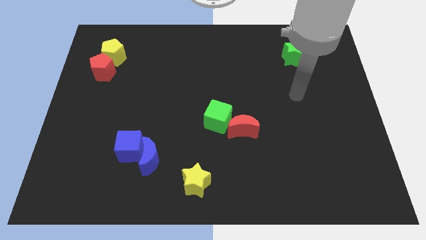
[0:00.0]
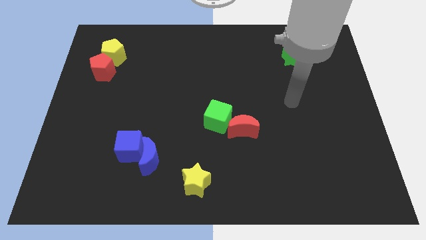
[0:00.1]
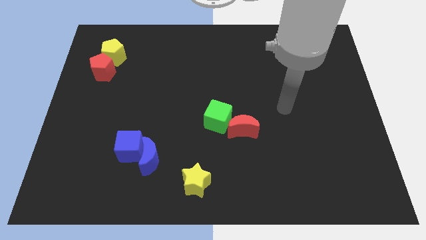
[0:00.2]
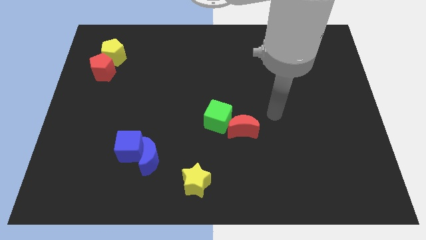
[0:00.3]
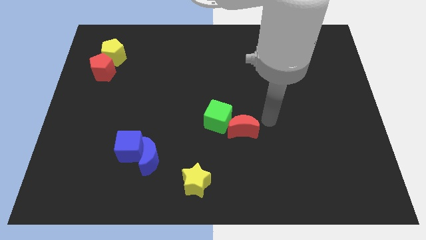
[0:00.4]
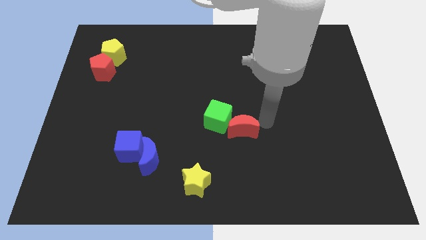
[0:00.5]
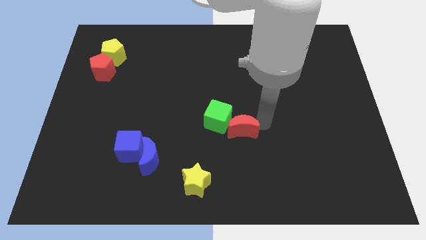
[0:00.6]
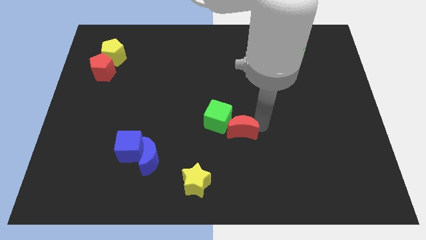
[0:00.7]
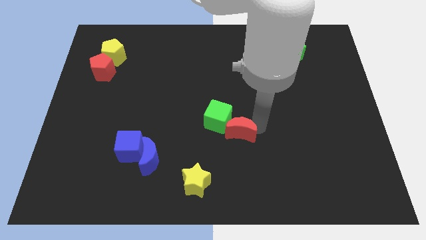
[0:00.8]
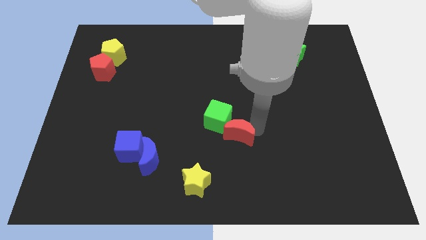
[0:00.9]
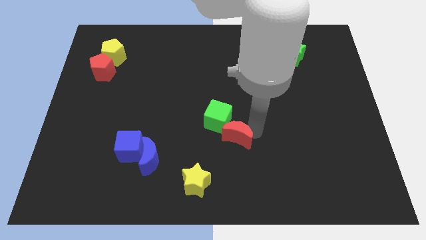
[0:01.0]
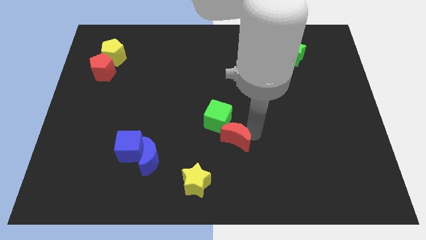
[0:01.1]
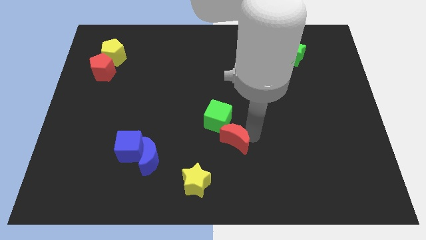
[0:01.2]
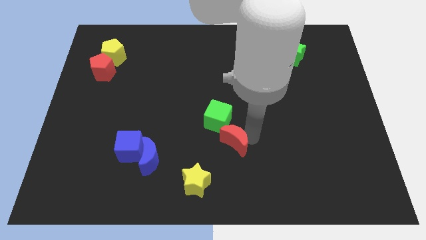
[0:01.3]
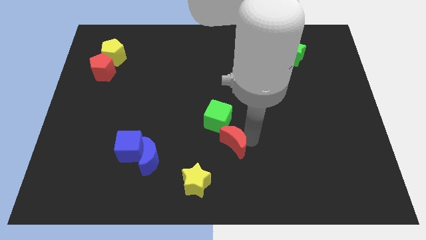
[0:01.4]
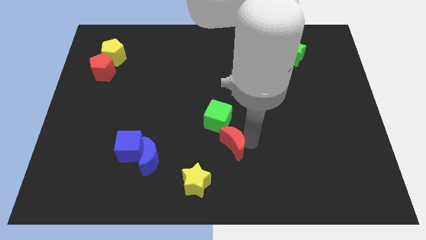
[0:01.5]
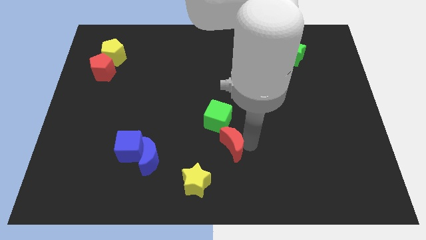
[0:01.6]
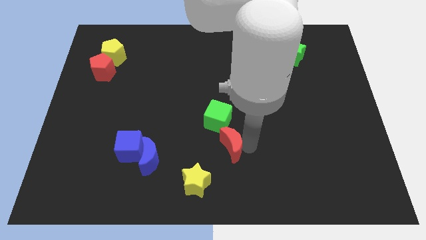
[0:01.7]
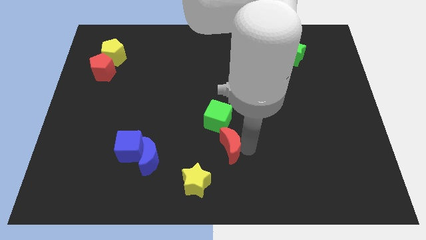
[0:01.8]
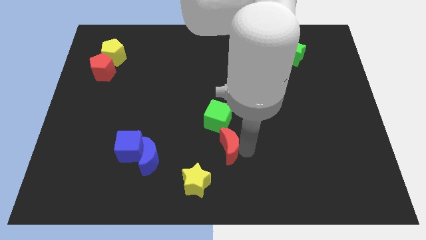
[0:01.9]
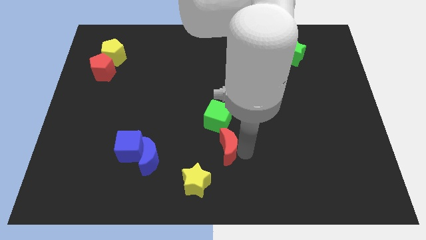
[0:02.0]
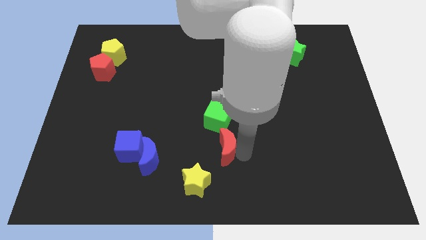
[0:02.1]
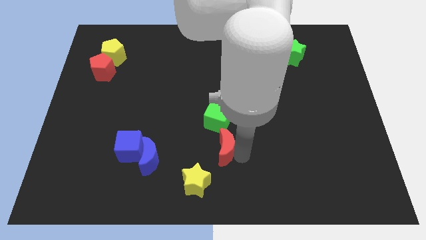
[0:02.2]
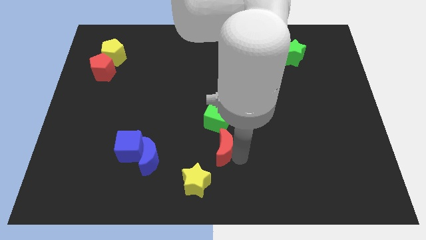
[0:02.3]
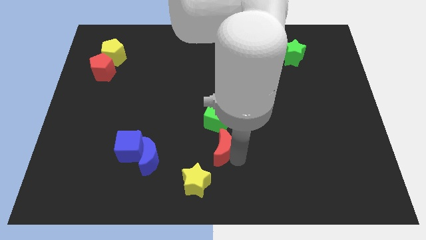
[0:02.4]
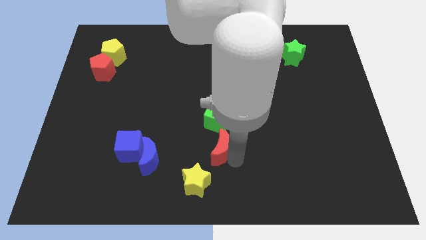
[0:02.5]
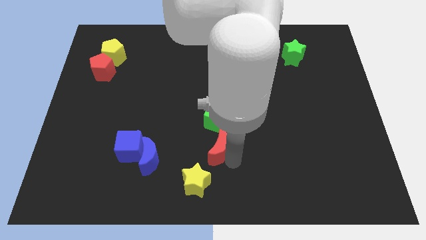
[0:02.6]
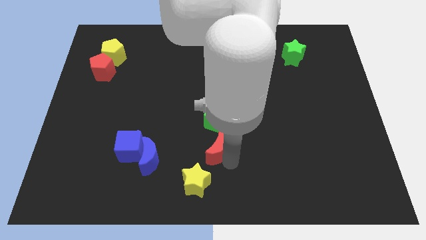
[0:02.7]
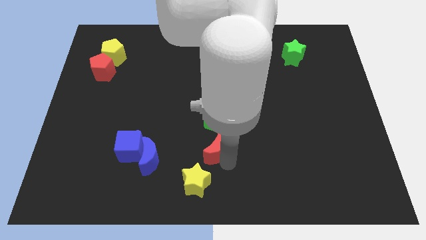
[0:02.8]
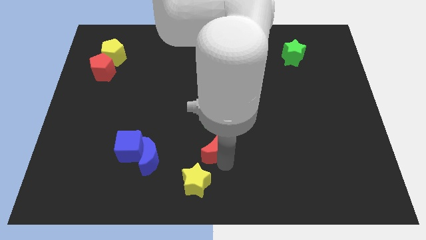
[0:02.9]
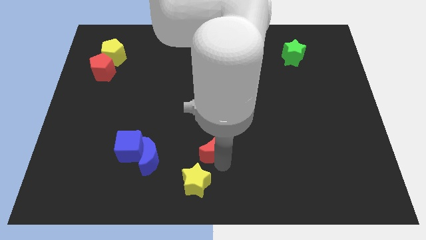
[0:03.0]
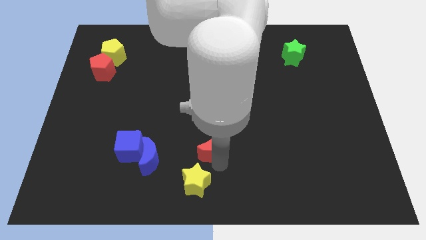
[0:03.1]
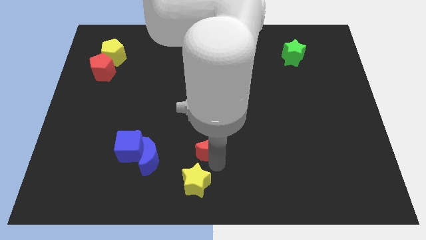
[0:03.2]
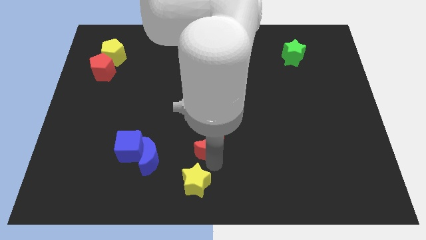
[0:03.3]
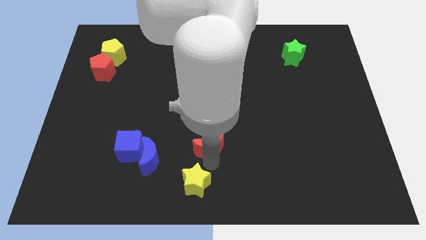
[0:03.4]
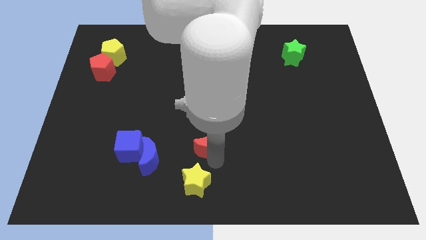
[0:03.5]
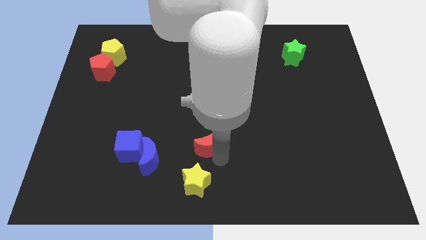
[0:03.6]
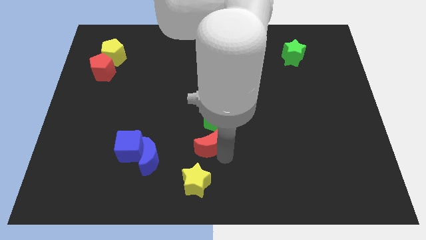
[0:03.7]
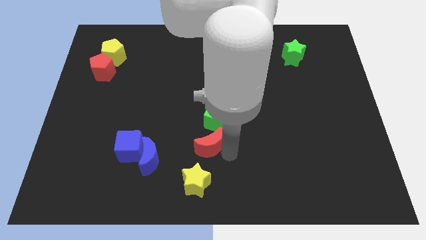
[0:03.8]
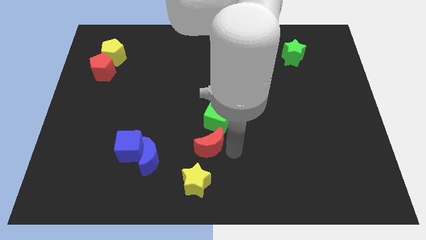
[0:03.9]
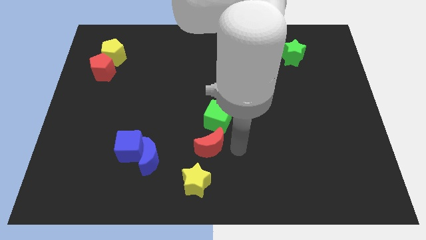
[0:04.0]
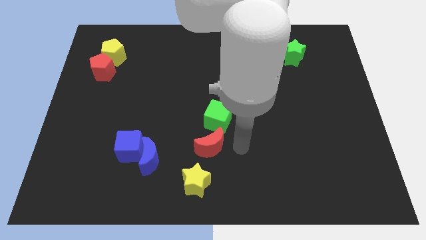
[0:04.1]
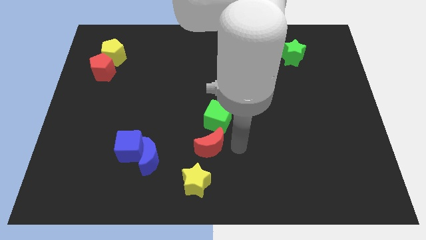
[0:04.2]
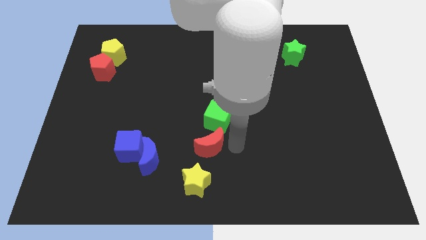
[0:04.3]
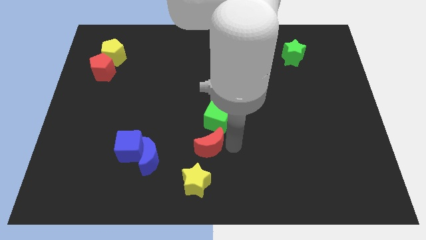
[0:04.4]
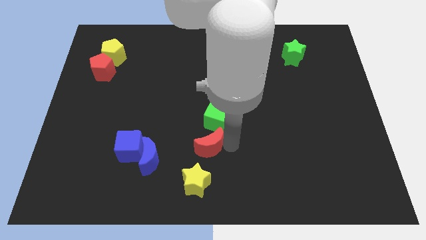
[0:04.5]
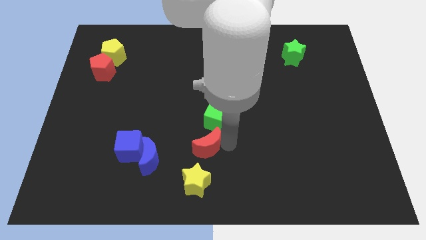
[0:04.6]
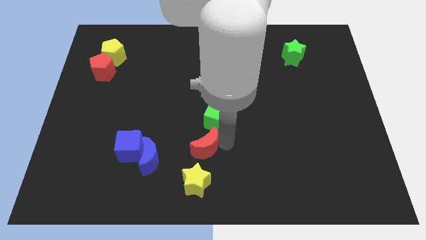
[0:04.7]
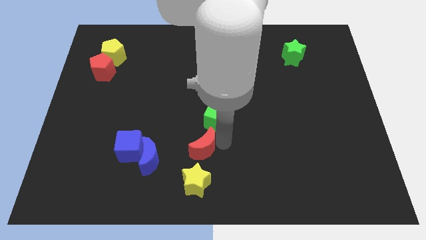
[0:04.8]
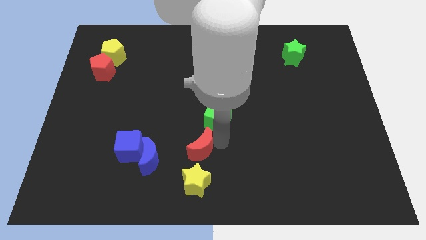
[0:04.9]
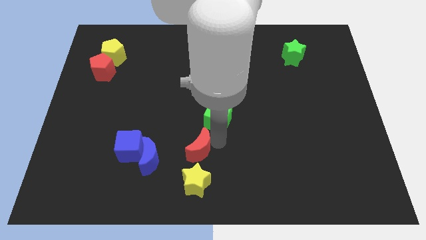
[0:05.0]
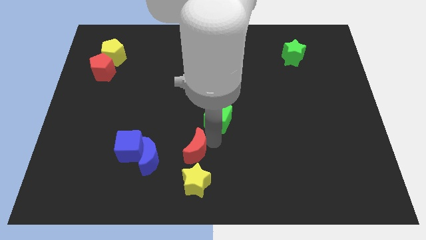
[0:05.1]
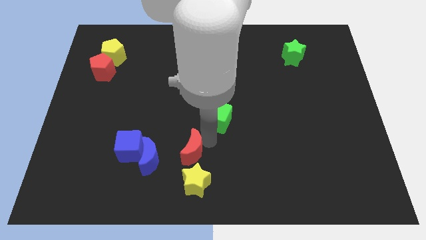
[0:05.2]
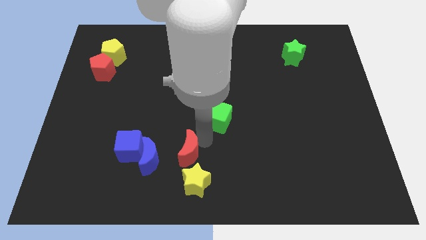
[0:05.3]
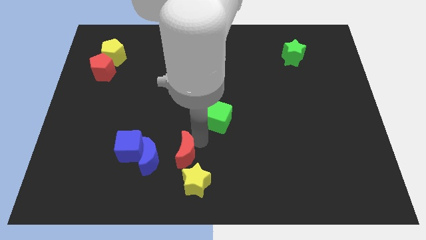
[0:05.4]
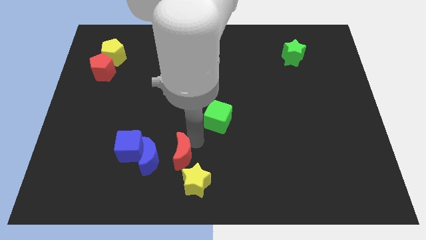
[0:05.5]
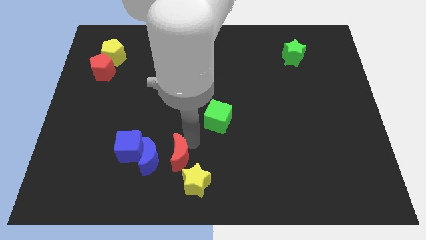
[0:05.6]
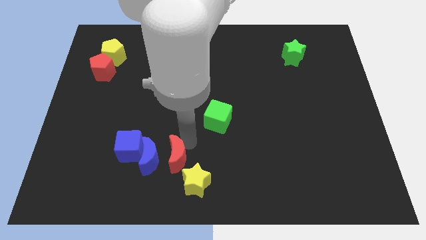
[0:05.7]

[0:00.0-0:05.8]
put the red moon close to the blue moon
